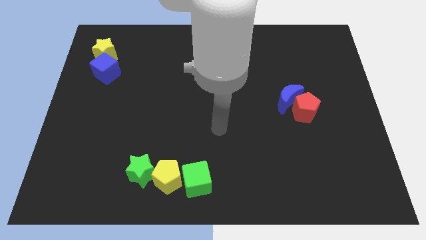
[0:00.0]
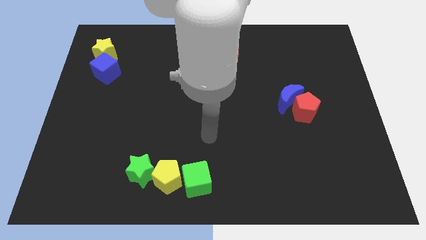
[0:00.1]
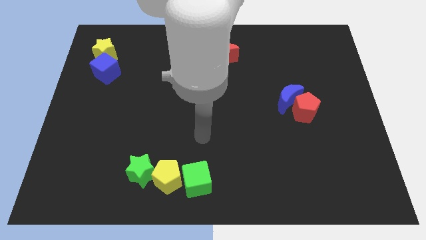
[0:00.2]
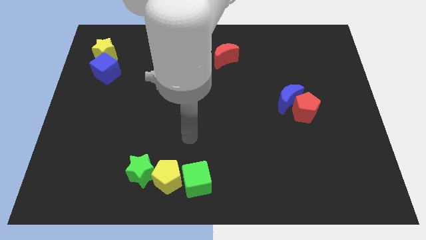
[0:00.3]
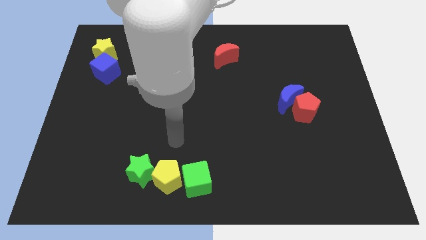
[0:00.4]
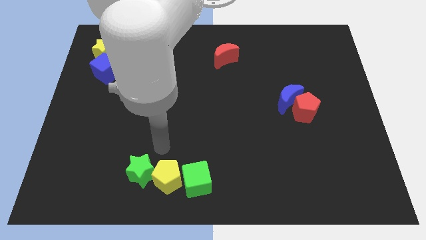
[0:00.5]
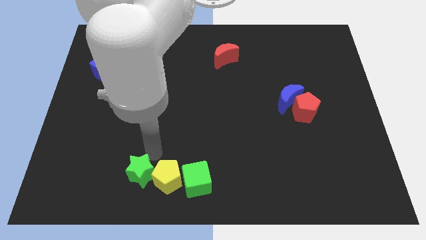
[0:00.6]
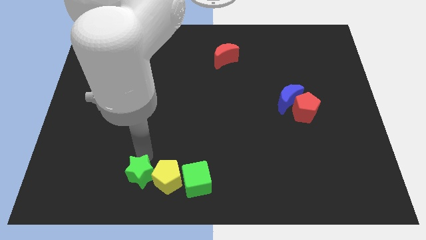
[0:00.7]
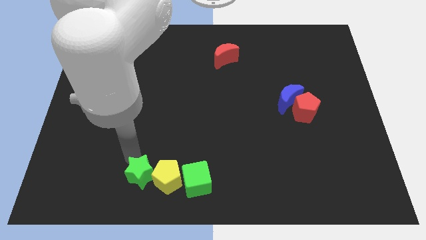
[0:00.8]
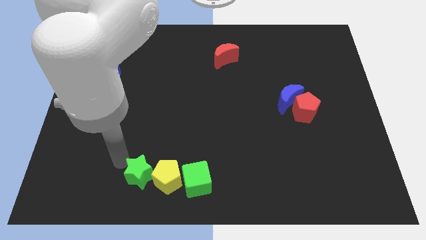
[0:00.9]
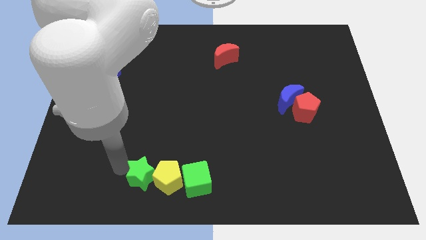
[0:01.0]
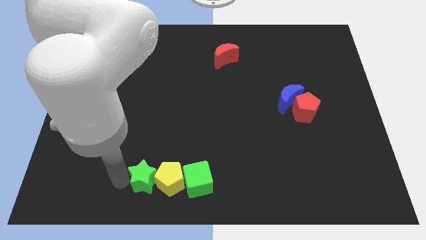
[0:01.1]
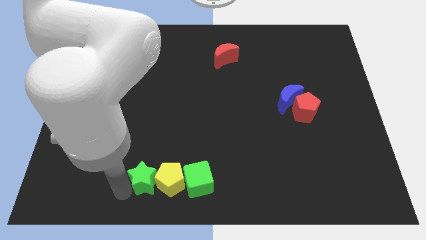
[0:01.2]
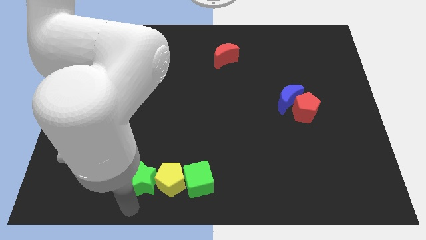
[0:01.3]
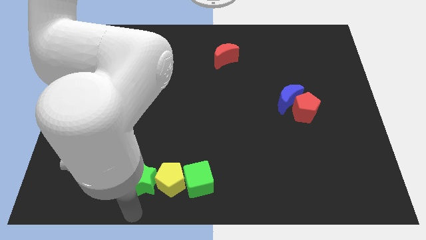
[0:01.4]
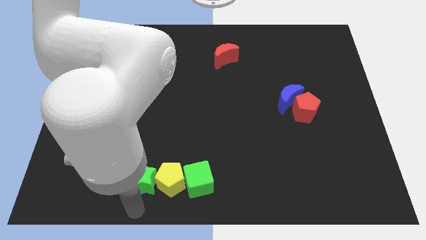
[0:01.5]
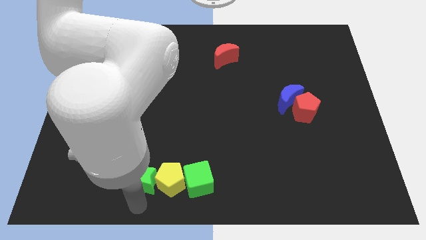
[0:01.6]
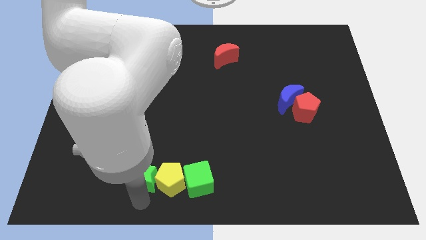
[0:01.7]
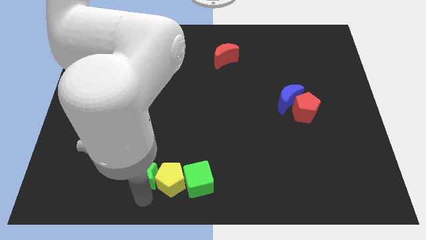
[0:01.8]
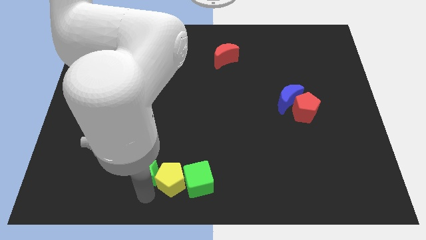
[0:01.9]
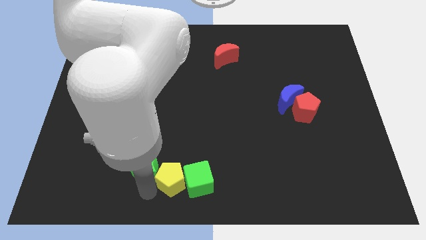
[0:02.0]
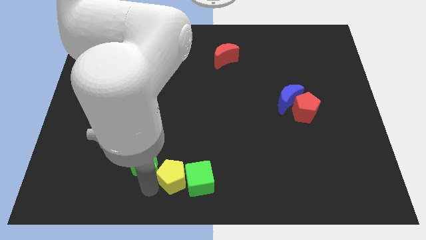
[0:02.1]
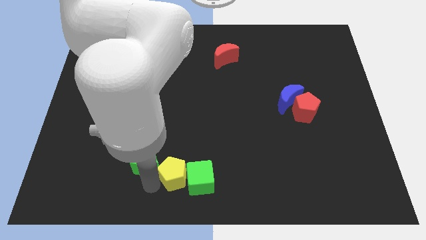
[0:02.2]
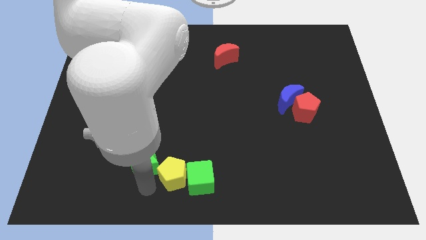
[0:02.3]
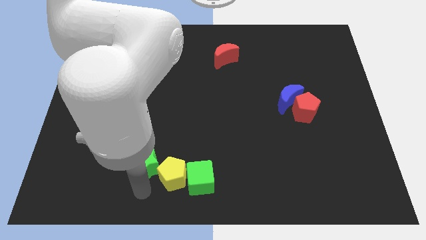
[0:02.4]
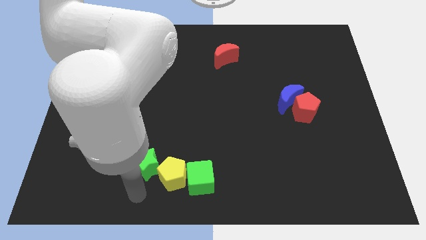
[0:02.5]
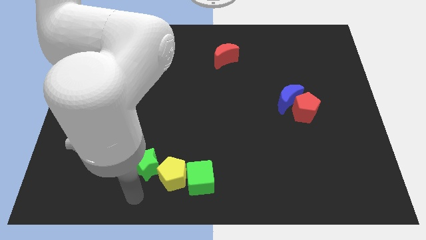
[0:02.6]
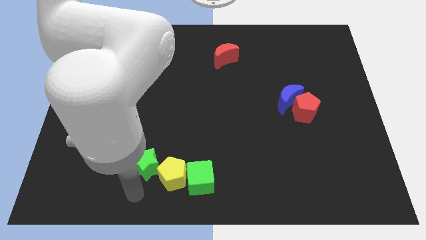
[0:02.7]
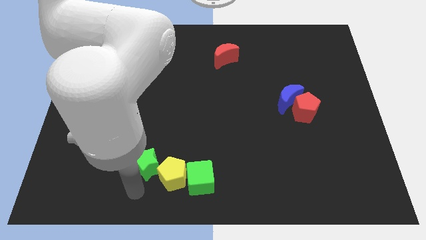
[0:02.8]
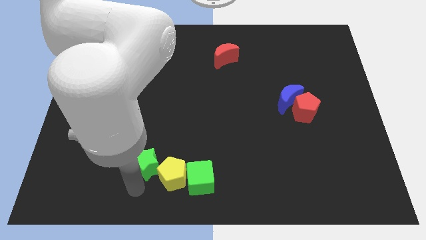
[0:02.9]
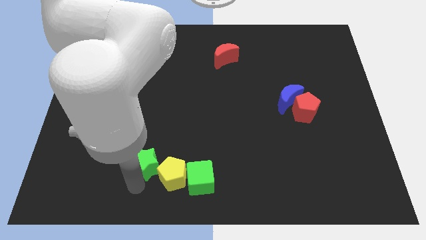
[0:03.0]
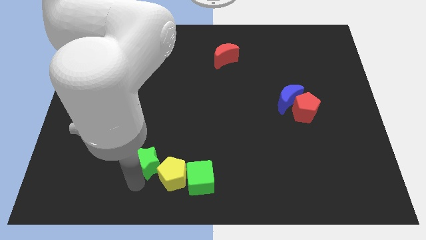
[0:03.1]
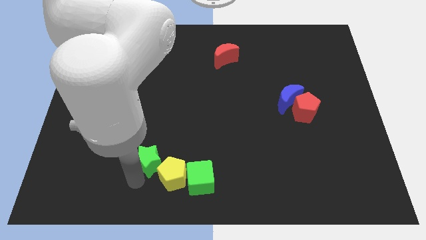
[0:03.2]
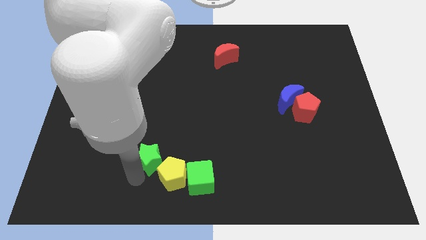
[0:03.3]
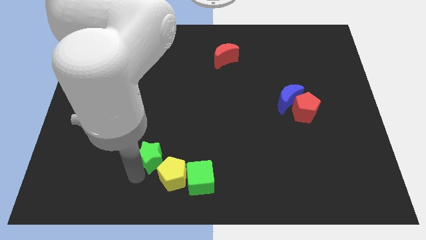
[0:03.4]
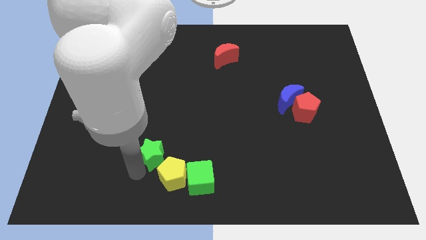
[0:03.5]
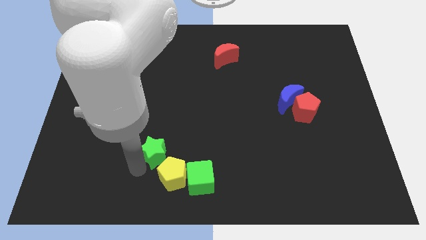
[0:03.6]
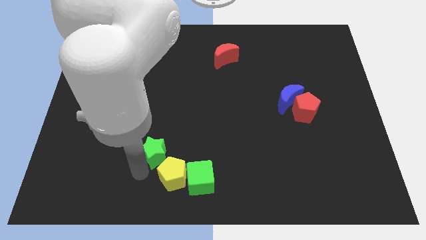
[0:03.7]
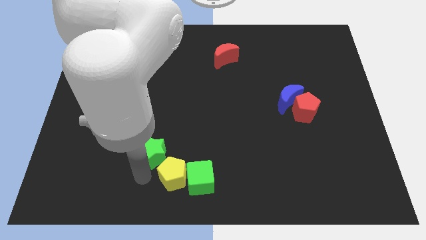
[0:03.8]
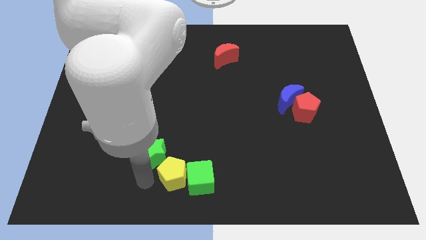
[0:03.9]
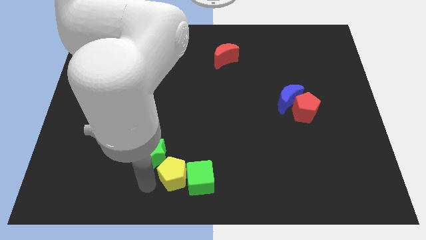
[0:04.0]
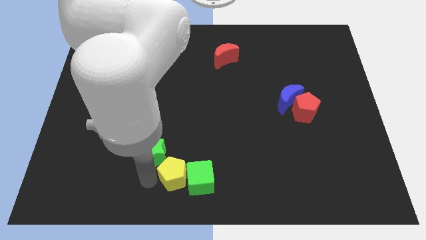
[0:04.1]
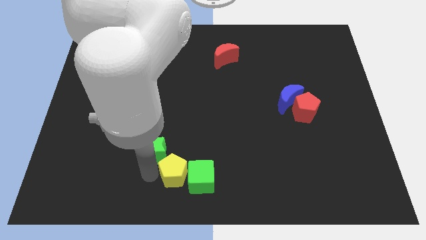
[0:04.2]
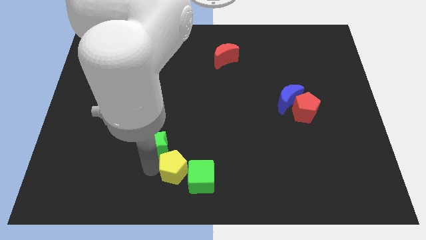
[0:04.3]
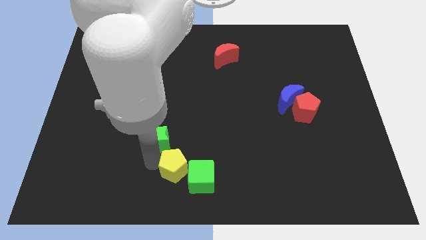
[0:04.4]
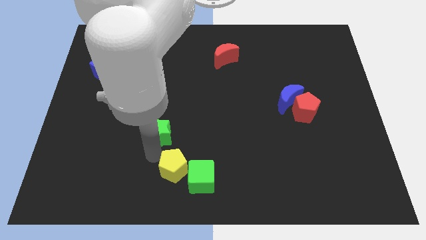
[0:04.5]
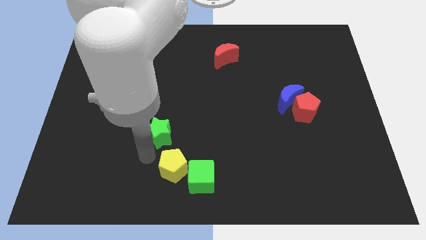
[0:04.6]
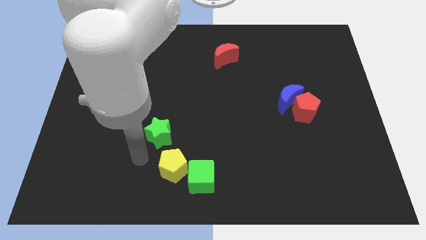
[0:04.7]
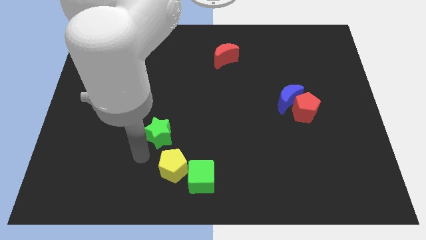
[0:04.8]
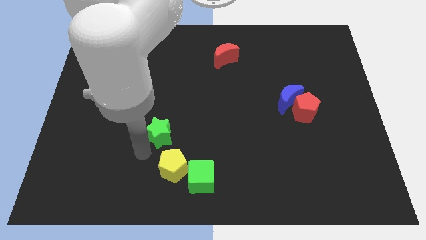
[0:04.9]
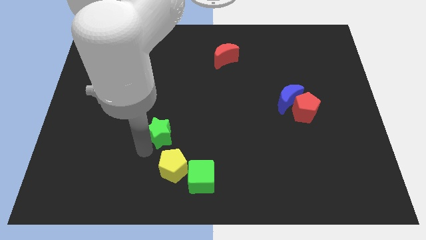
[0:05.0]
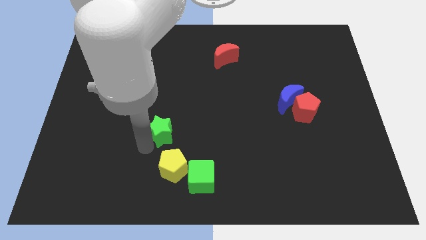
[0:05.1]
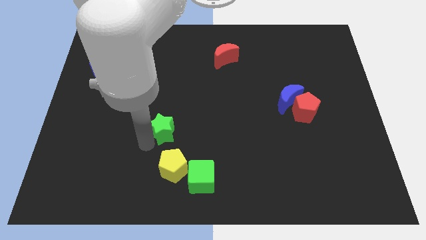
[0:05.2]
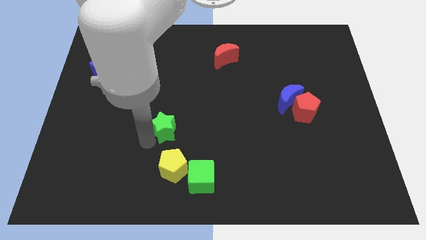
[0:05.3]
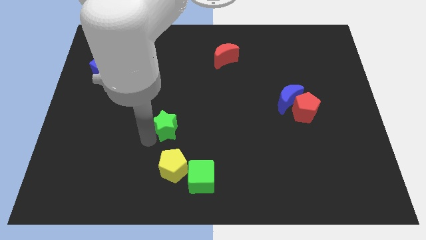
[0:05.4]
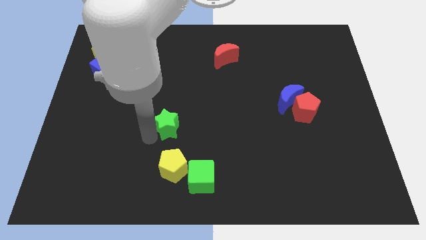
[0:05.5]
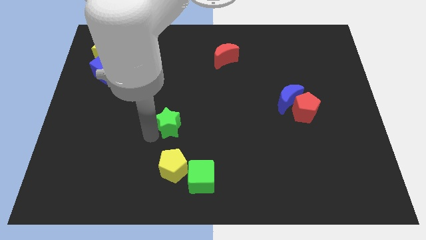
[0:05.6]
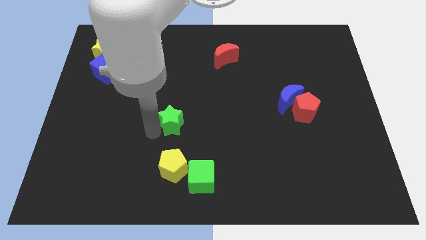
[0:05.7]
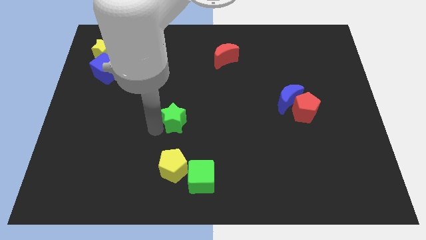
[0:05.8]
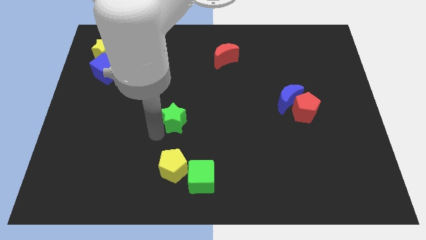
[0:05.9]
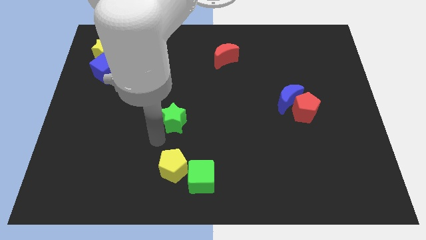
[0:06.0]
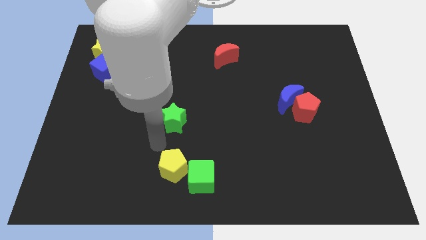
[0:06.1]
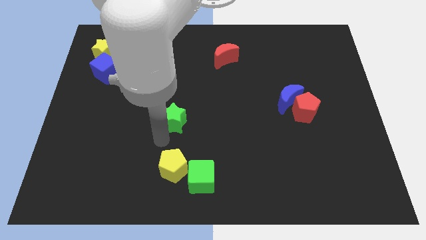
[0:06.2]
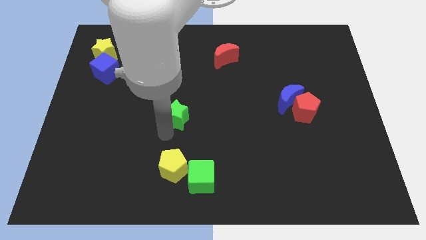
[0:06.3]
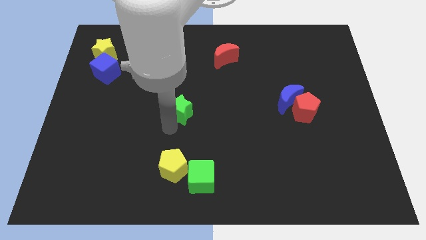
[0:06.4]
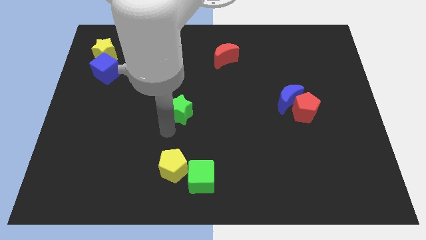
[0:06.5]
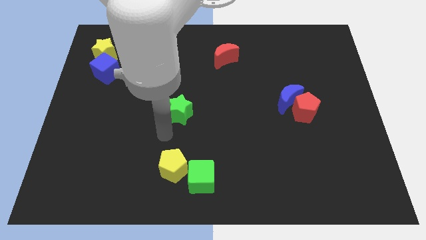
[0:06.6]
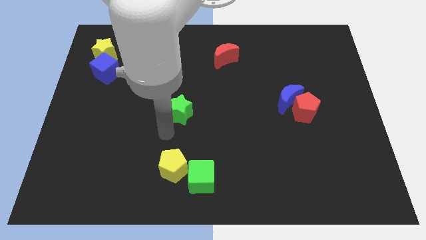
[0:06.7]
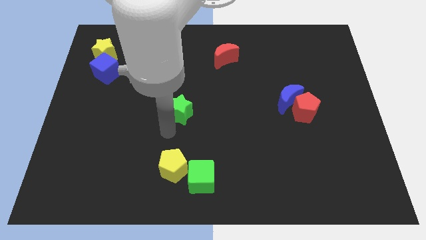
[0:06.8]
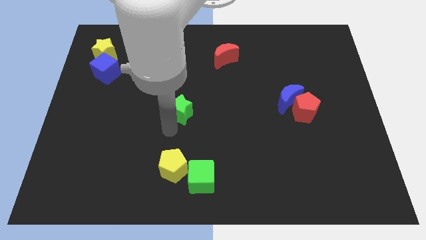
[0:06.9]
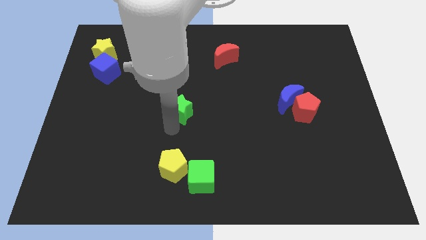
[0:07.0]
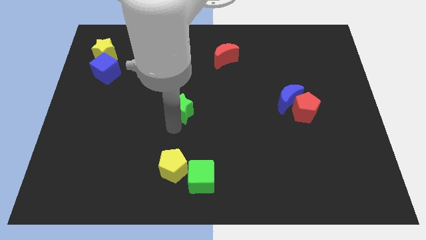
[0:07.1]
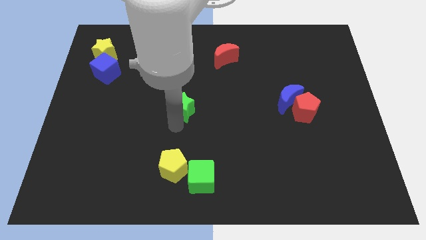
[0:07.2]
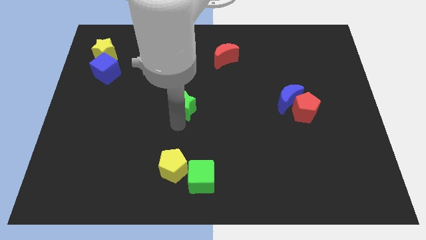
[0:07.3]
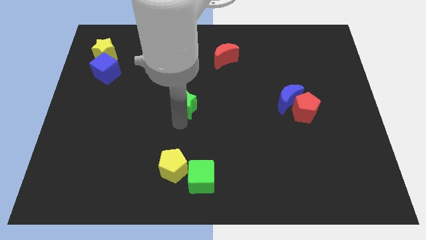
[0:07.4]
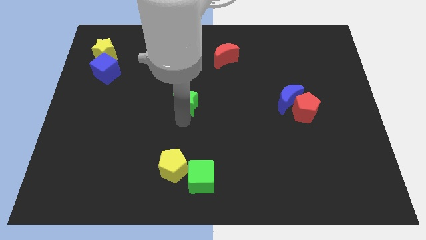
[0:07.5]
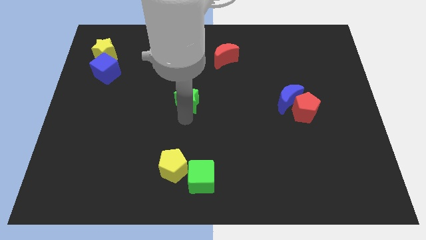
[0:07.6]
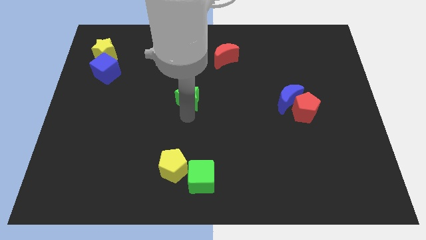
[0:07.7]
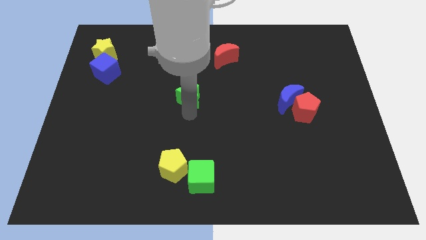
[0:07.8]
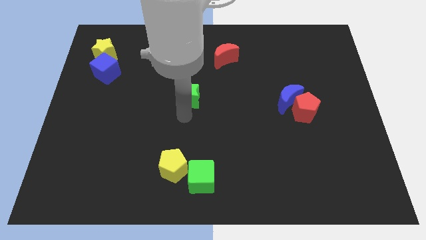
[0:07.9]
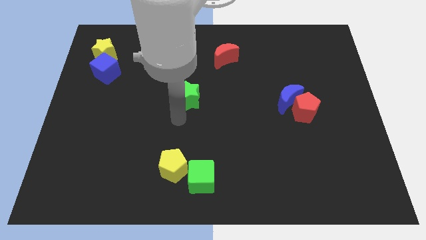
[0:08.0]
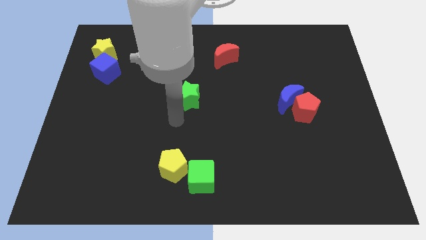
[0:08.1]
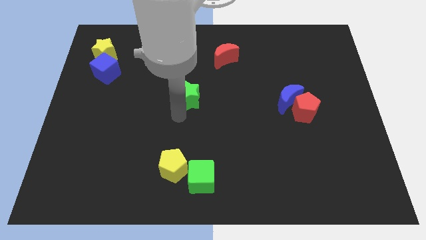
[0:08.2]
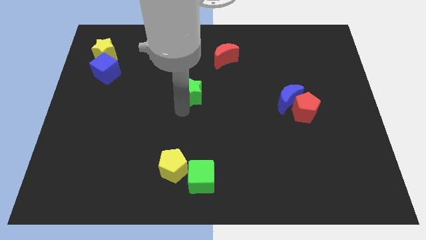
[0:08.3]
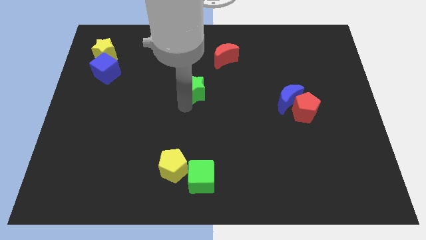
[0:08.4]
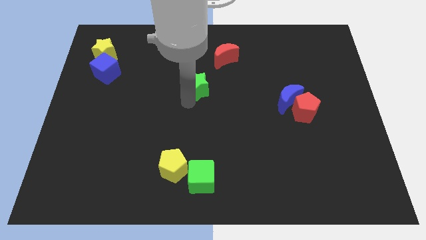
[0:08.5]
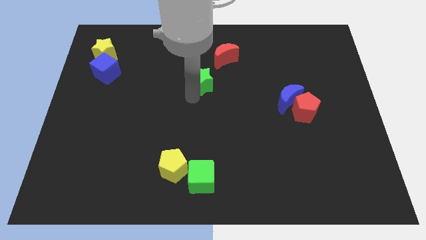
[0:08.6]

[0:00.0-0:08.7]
put the green star to the bottom left side of the red moon
